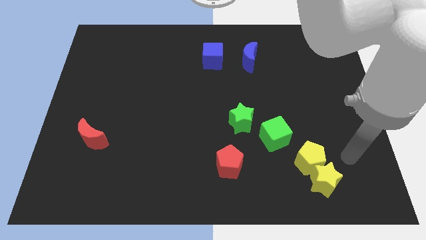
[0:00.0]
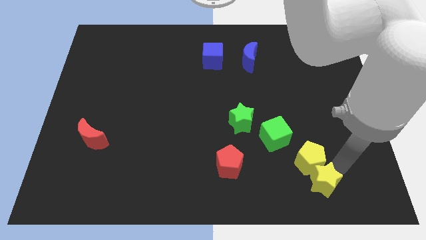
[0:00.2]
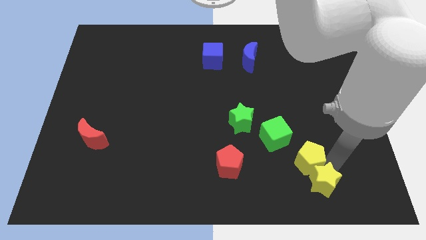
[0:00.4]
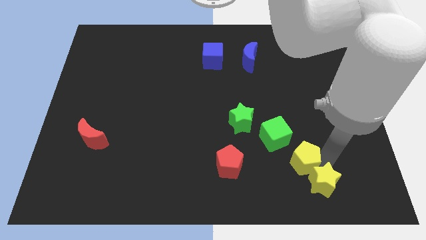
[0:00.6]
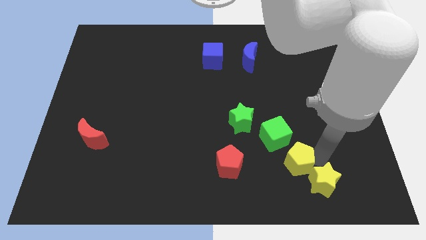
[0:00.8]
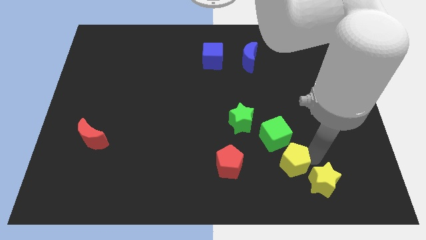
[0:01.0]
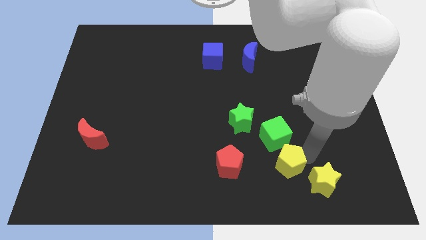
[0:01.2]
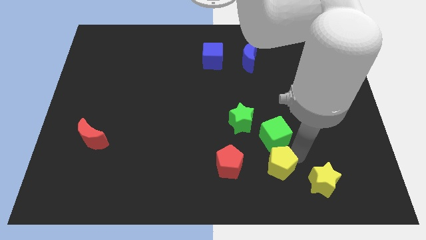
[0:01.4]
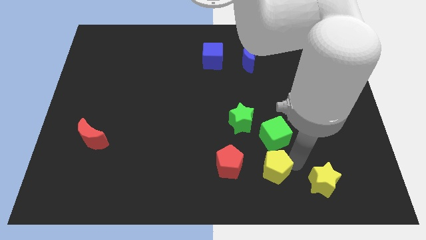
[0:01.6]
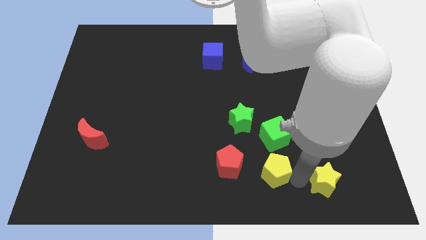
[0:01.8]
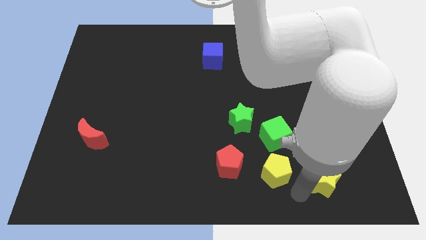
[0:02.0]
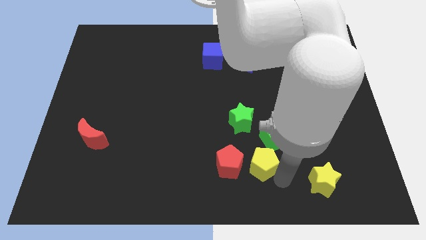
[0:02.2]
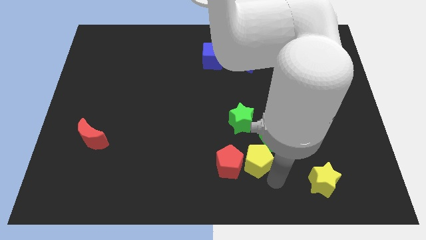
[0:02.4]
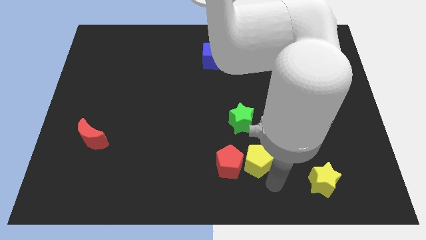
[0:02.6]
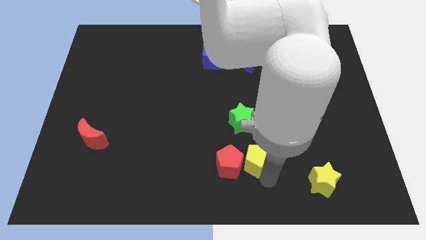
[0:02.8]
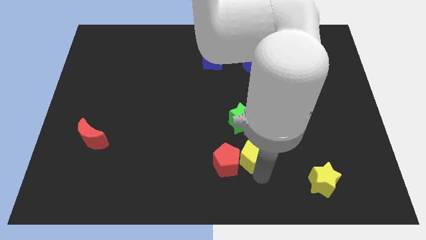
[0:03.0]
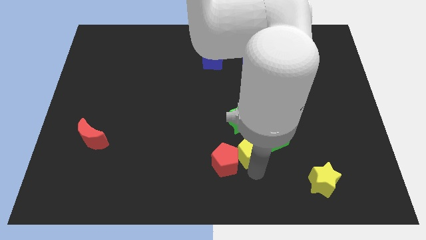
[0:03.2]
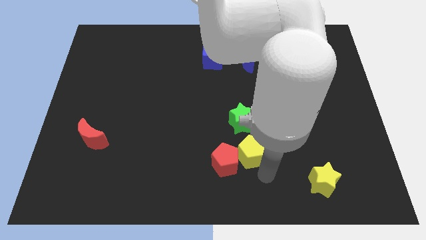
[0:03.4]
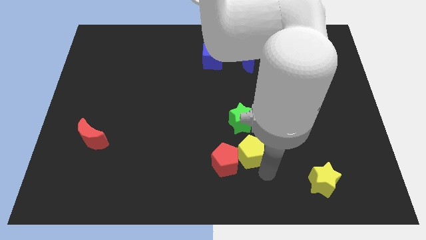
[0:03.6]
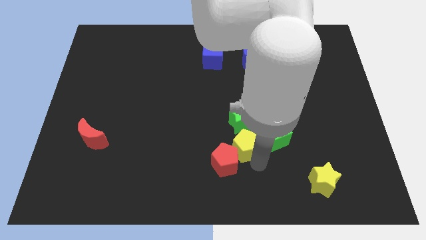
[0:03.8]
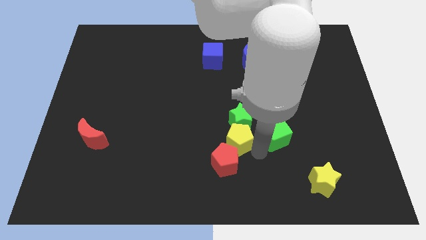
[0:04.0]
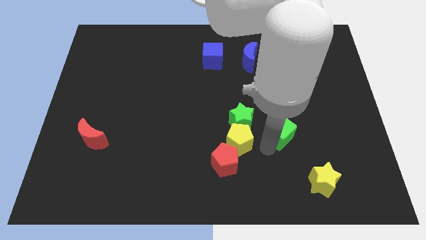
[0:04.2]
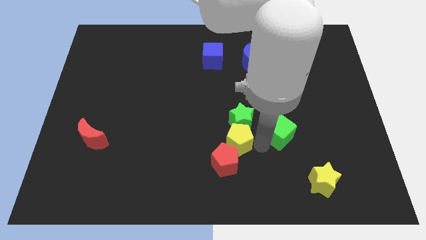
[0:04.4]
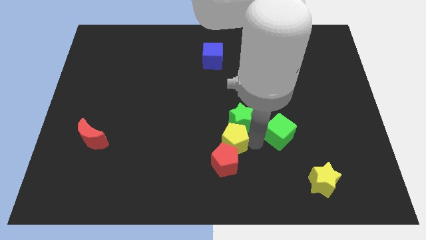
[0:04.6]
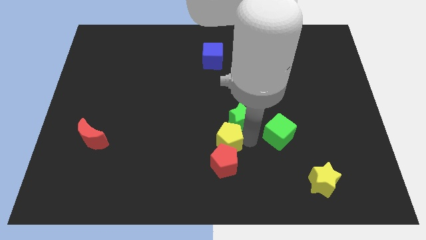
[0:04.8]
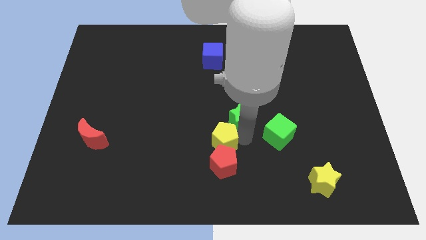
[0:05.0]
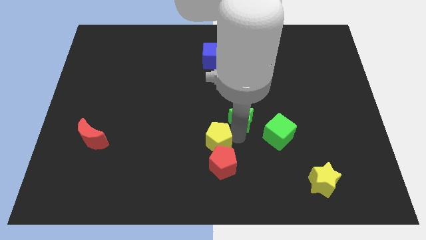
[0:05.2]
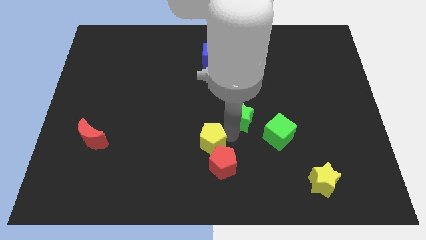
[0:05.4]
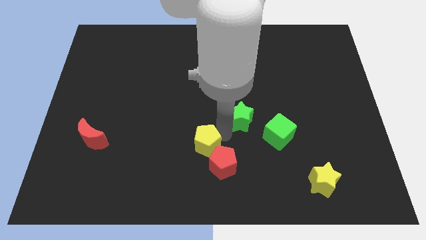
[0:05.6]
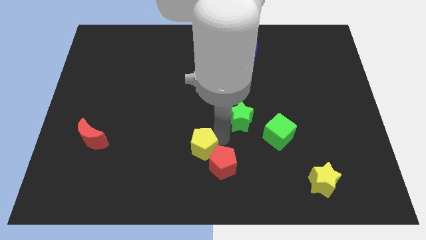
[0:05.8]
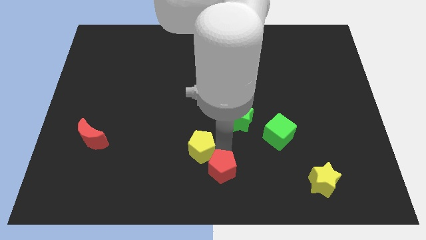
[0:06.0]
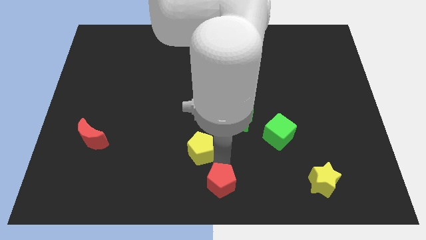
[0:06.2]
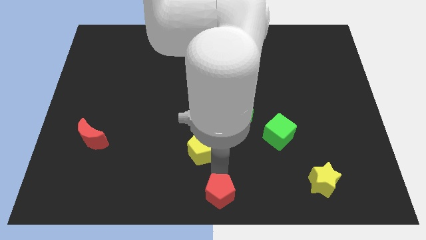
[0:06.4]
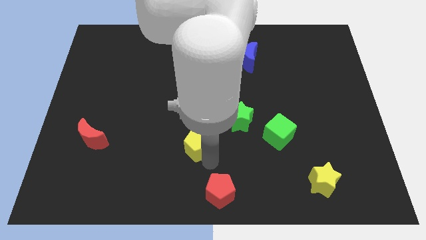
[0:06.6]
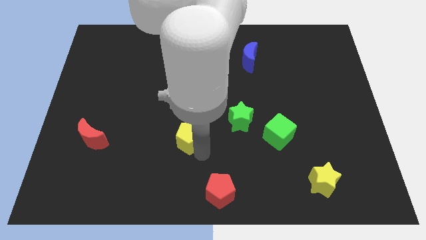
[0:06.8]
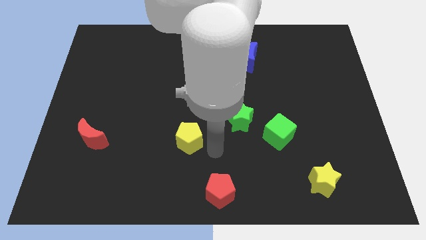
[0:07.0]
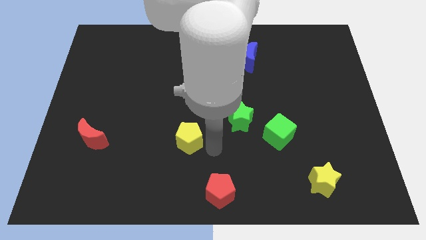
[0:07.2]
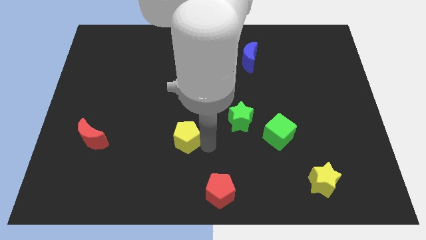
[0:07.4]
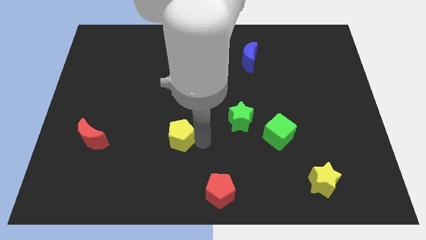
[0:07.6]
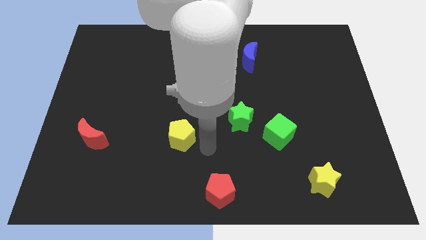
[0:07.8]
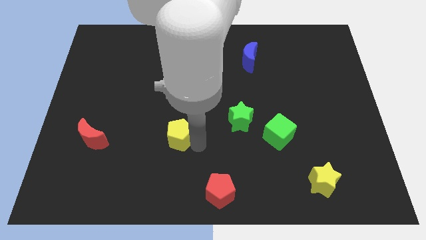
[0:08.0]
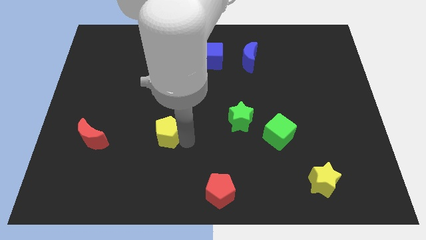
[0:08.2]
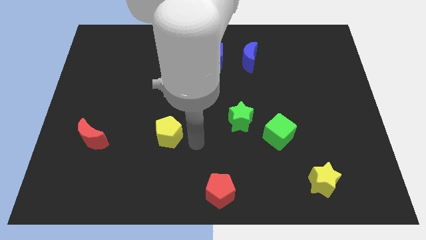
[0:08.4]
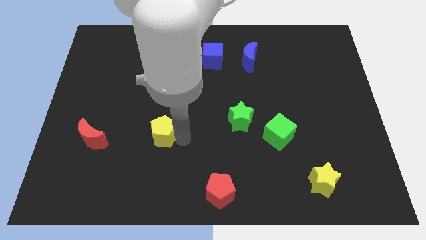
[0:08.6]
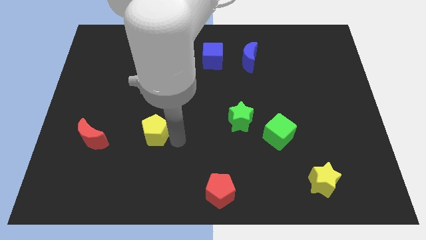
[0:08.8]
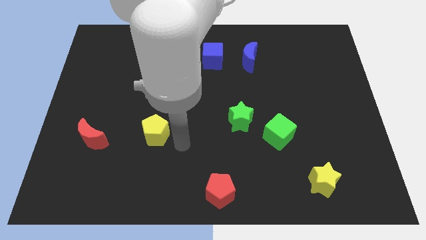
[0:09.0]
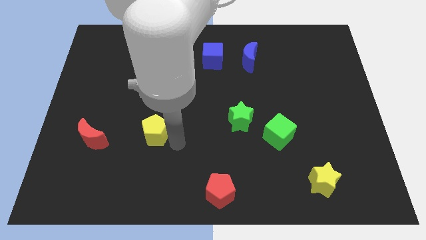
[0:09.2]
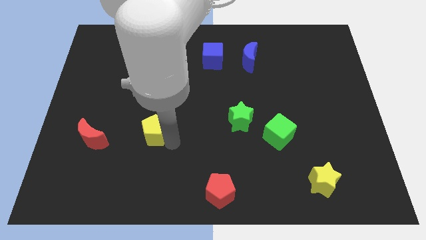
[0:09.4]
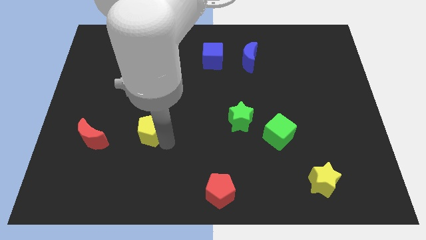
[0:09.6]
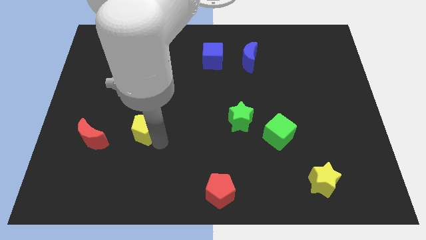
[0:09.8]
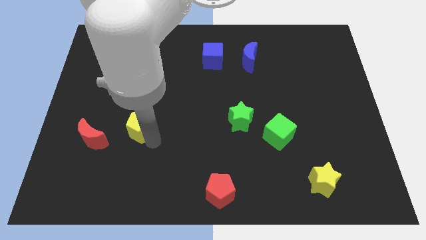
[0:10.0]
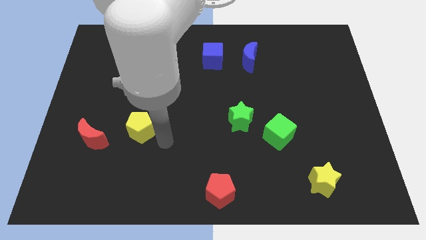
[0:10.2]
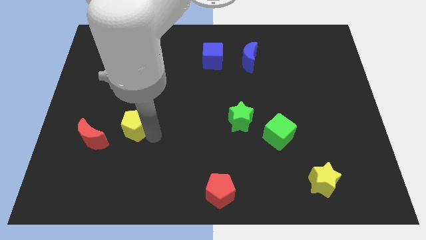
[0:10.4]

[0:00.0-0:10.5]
move the yellow pentagon to the top right of the red moon

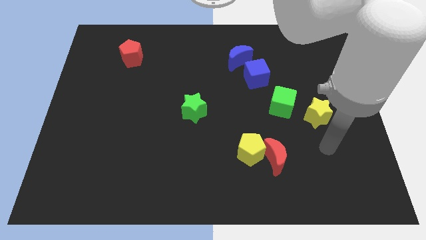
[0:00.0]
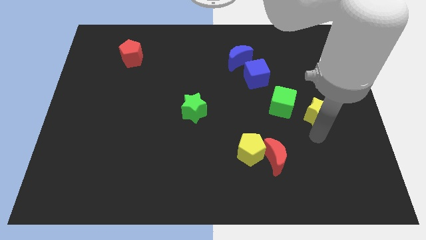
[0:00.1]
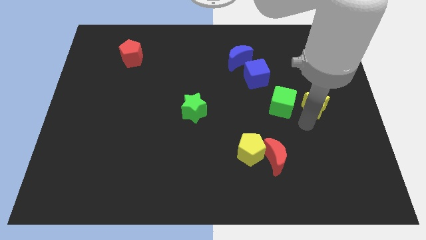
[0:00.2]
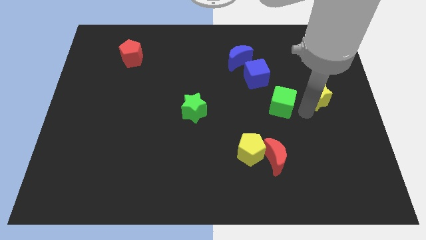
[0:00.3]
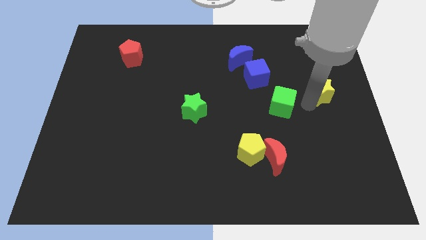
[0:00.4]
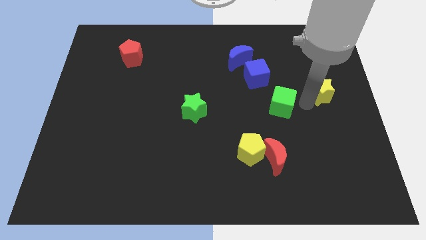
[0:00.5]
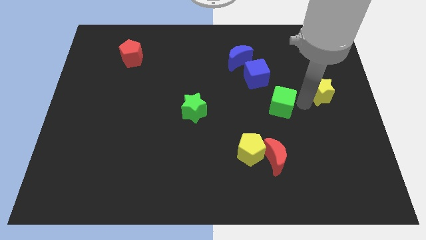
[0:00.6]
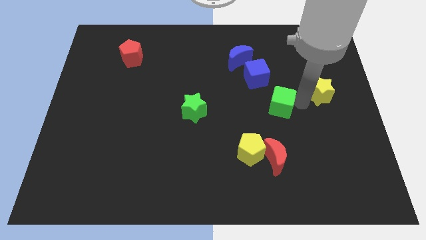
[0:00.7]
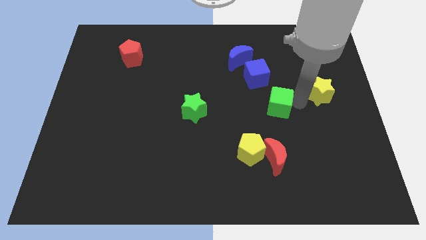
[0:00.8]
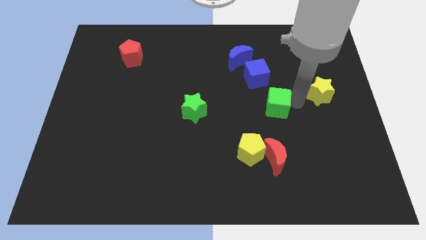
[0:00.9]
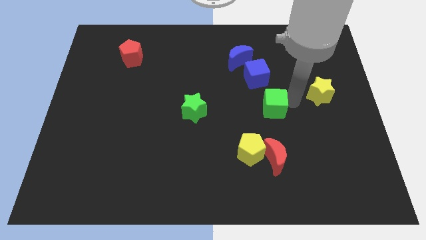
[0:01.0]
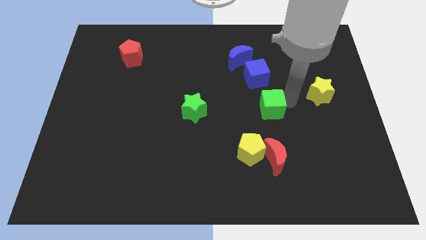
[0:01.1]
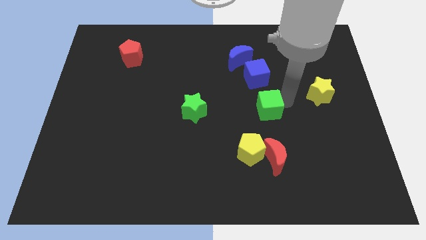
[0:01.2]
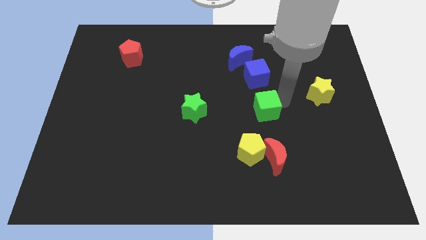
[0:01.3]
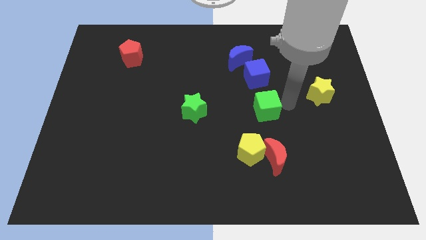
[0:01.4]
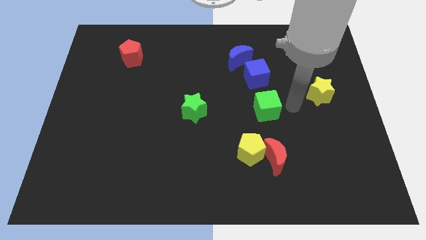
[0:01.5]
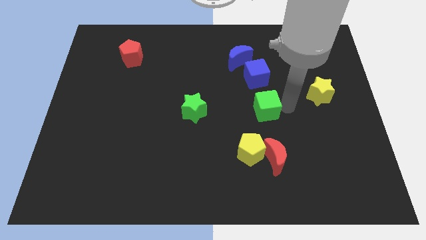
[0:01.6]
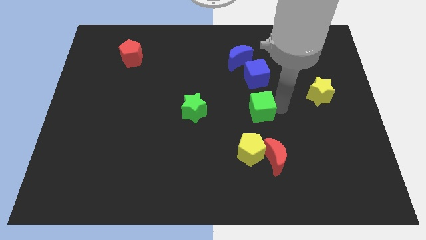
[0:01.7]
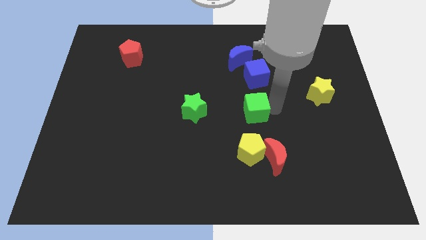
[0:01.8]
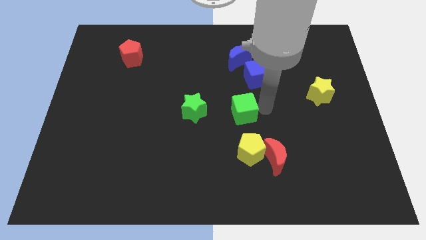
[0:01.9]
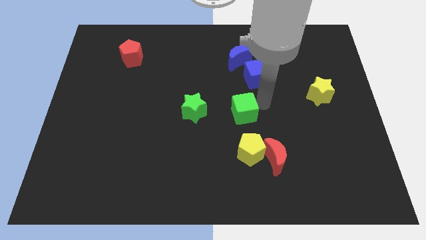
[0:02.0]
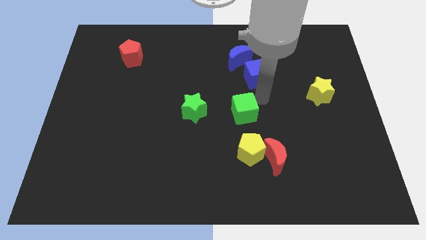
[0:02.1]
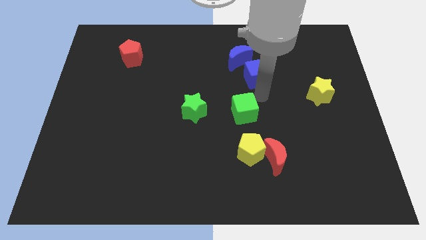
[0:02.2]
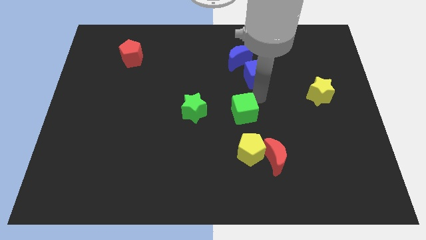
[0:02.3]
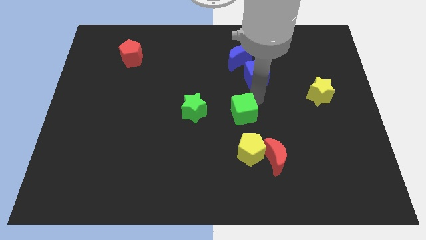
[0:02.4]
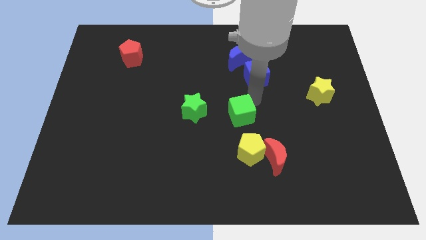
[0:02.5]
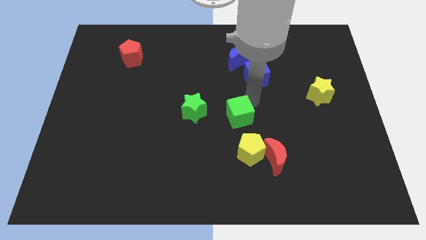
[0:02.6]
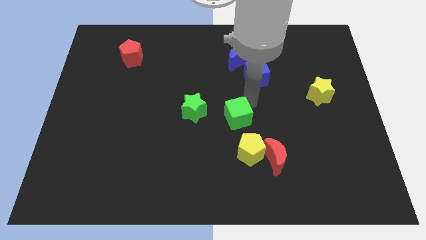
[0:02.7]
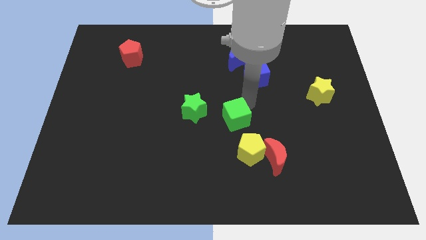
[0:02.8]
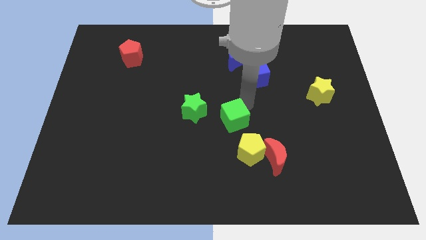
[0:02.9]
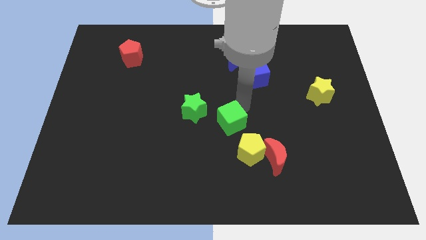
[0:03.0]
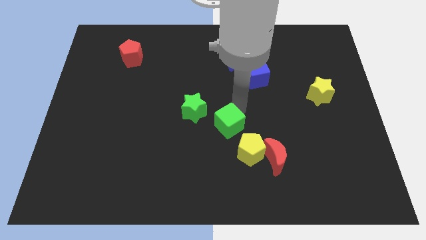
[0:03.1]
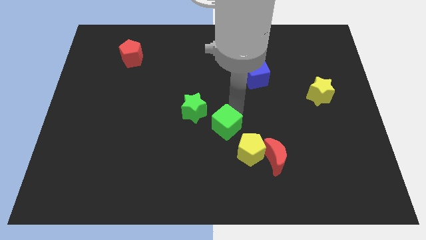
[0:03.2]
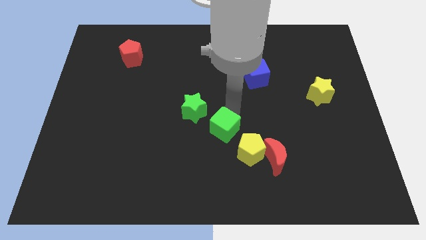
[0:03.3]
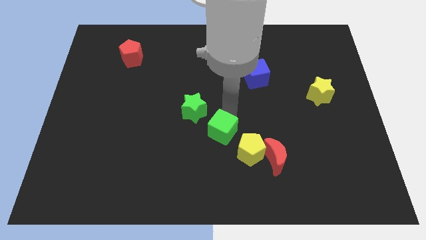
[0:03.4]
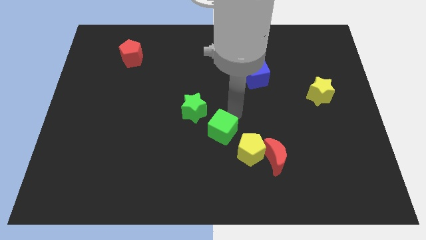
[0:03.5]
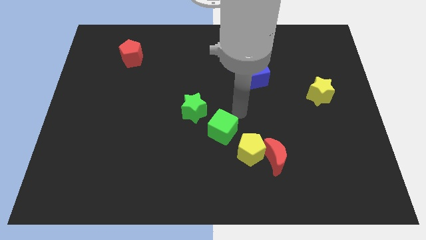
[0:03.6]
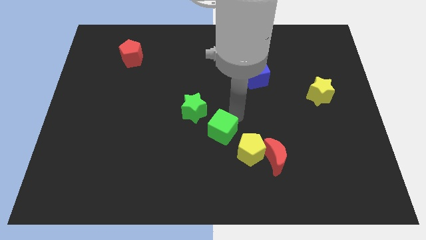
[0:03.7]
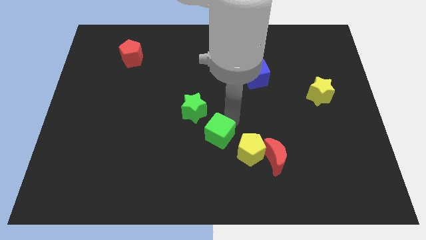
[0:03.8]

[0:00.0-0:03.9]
move the green cube to the left of the yellow pentagon
